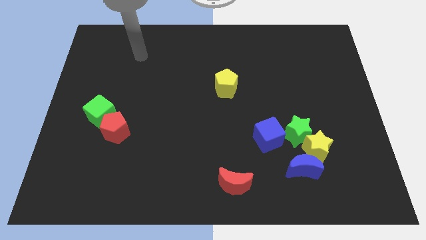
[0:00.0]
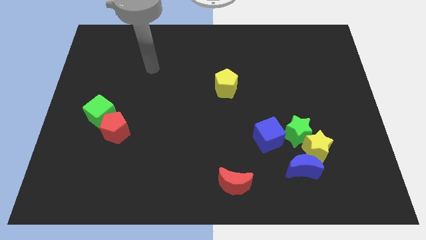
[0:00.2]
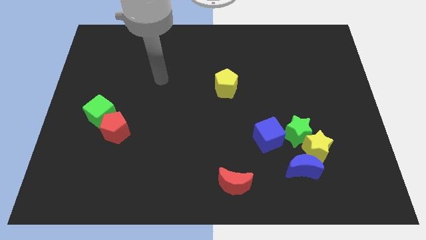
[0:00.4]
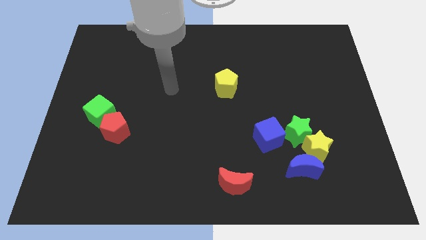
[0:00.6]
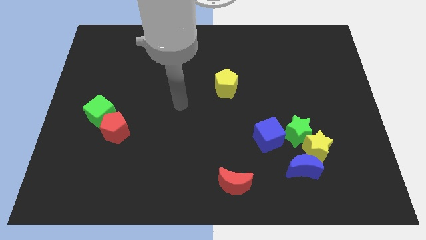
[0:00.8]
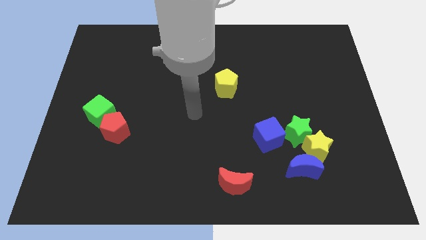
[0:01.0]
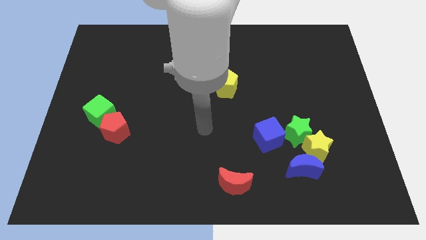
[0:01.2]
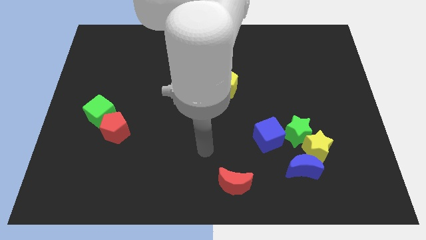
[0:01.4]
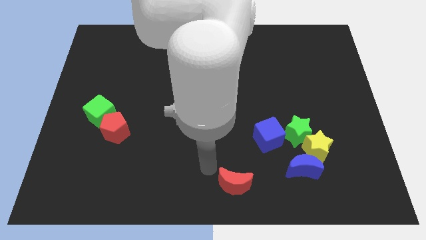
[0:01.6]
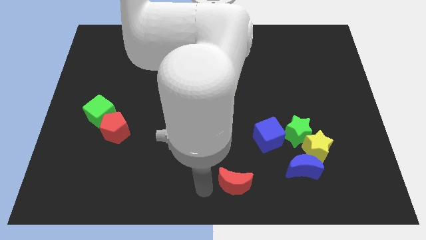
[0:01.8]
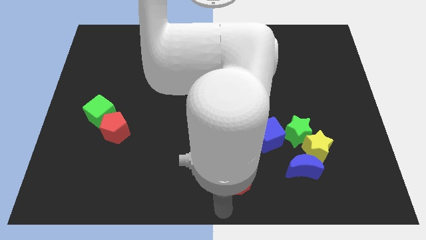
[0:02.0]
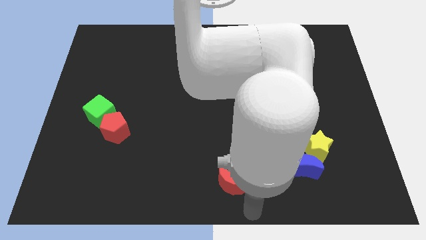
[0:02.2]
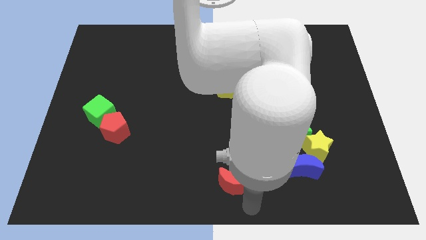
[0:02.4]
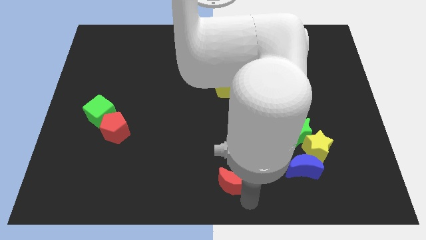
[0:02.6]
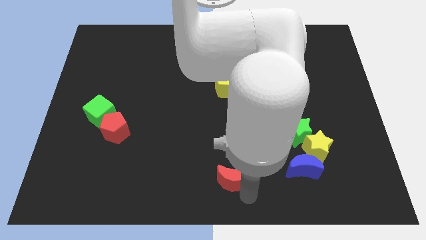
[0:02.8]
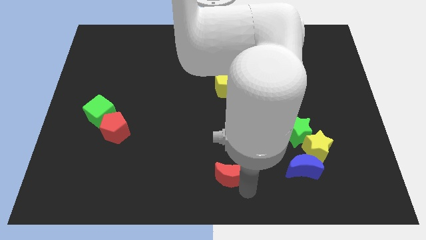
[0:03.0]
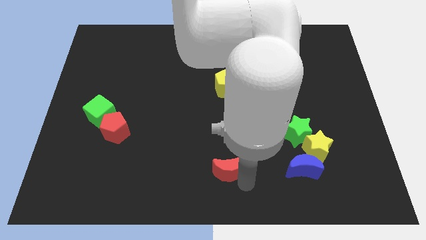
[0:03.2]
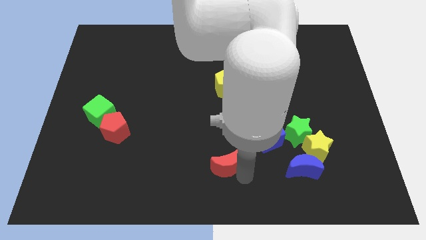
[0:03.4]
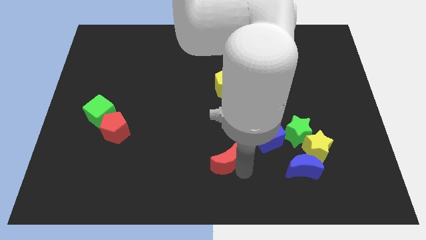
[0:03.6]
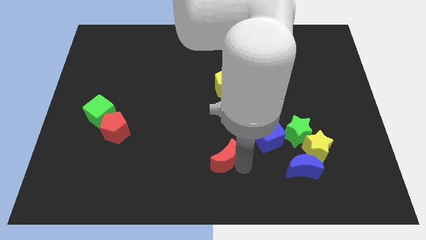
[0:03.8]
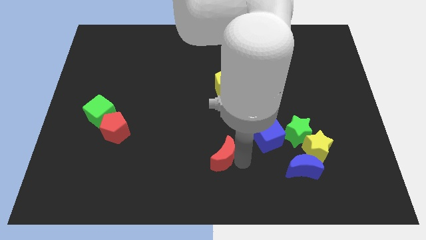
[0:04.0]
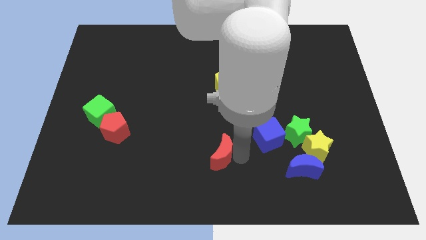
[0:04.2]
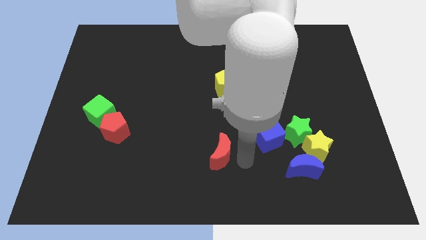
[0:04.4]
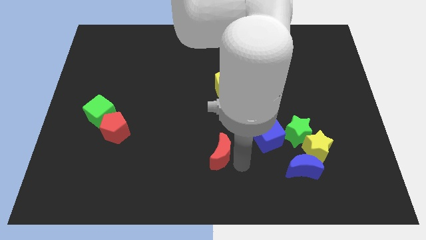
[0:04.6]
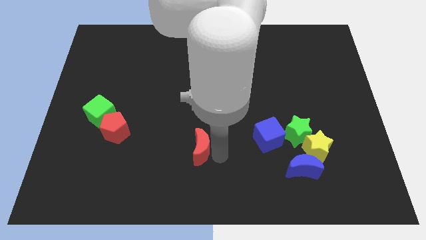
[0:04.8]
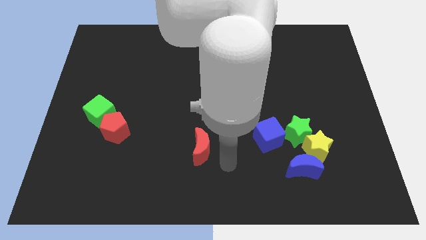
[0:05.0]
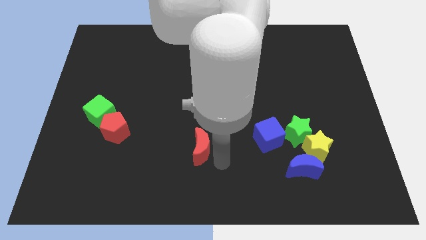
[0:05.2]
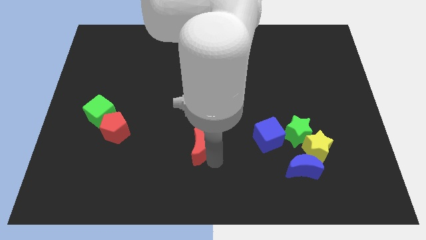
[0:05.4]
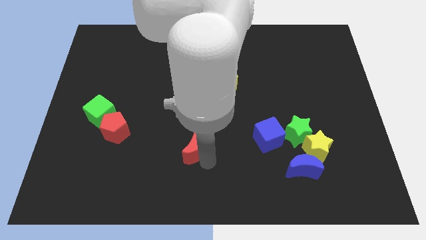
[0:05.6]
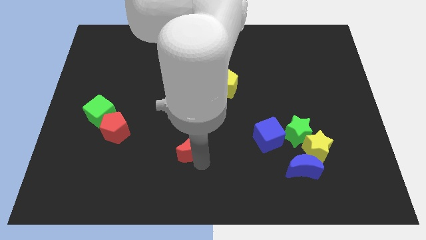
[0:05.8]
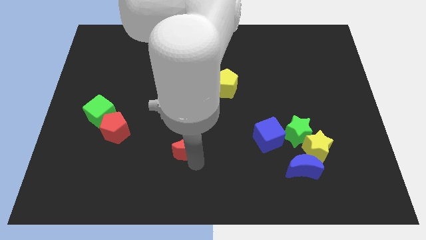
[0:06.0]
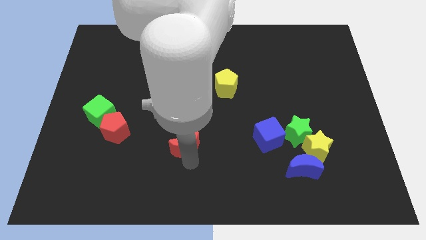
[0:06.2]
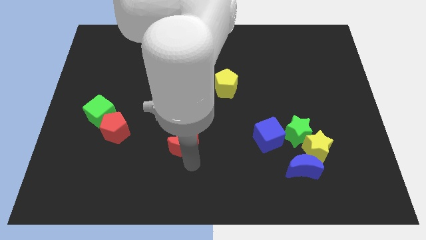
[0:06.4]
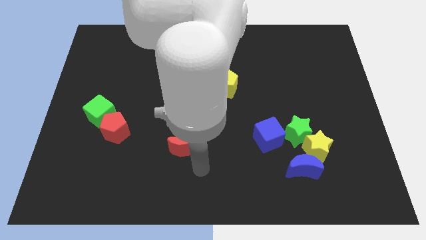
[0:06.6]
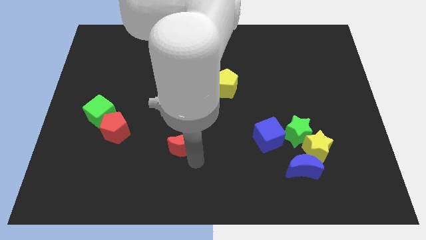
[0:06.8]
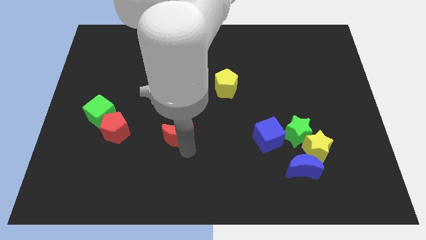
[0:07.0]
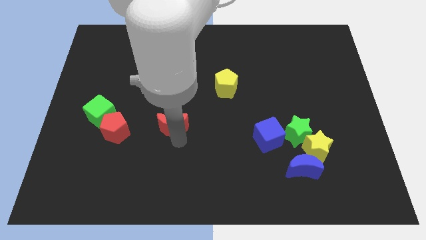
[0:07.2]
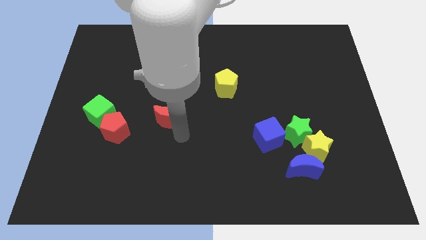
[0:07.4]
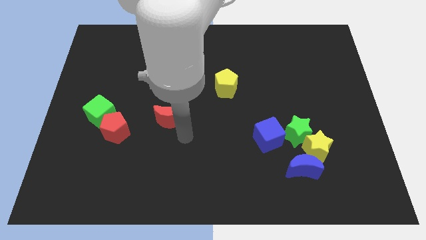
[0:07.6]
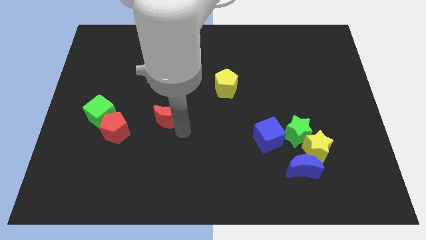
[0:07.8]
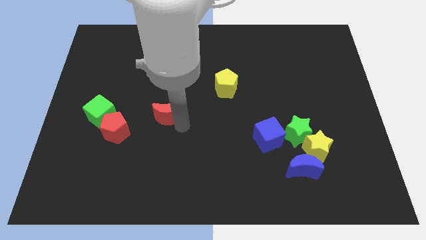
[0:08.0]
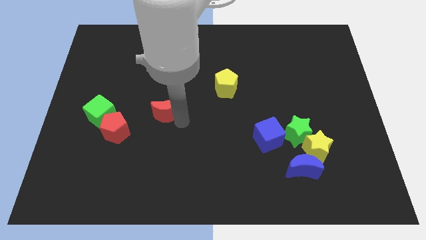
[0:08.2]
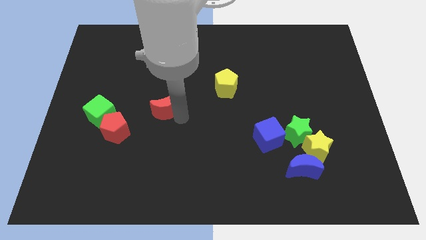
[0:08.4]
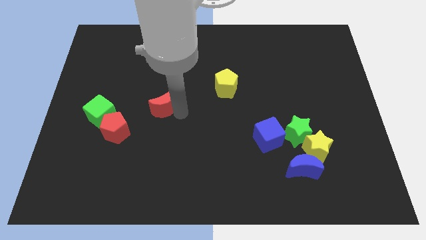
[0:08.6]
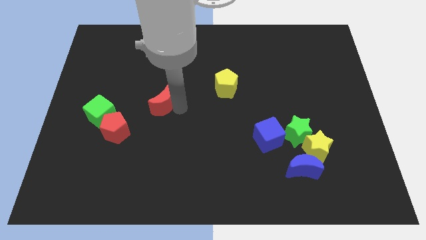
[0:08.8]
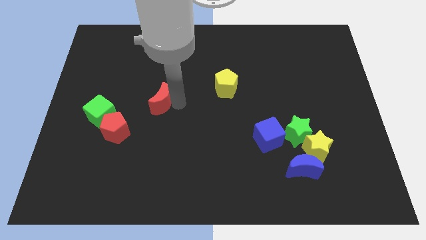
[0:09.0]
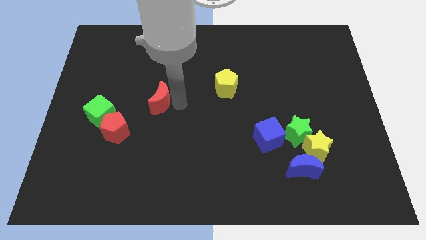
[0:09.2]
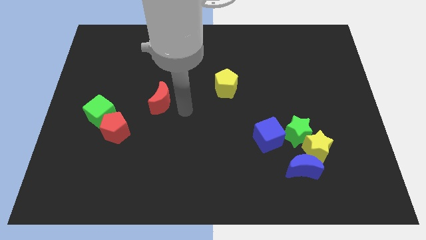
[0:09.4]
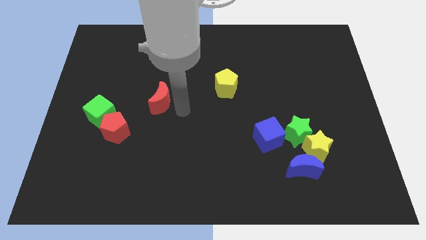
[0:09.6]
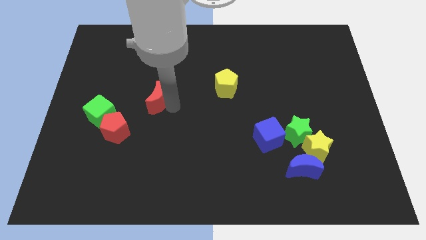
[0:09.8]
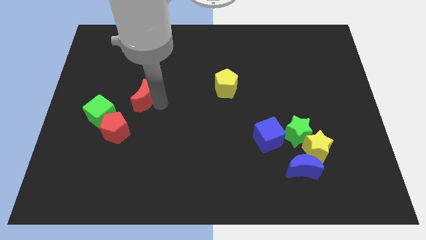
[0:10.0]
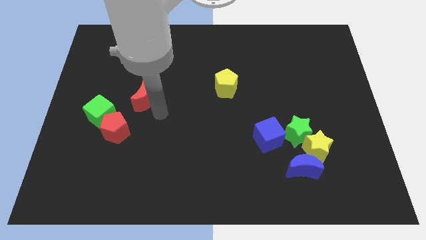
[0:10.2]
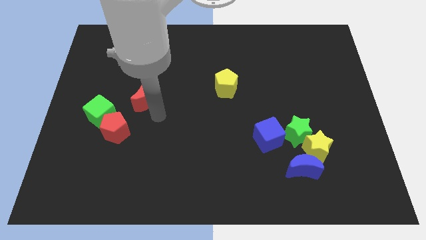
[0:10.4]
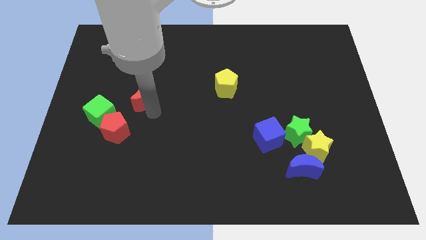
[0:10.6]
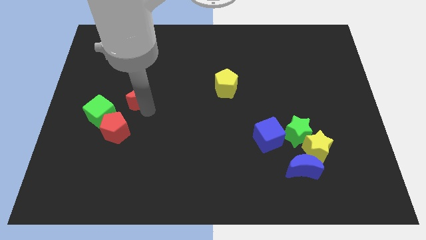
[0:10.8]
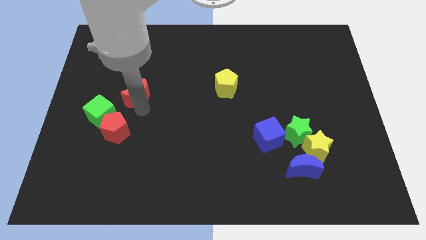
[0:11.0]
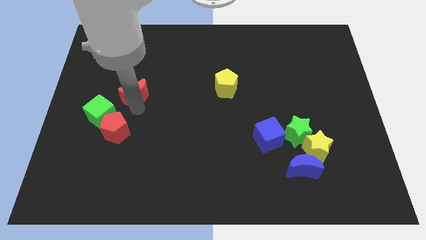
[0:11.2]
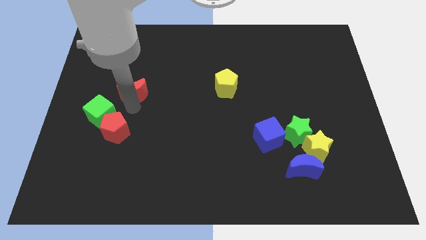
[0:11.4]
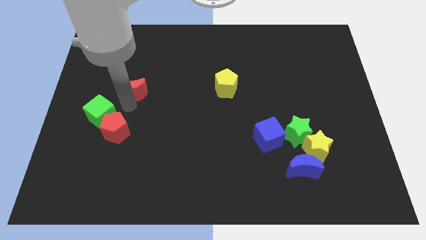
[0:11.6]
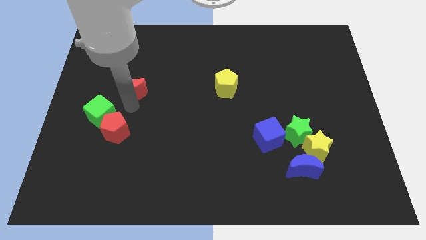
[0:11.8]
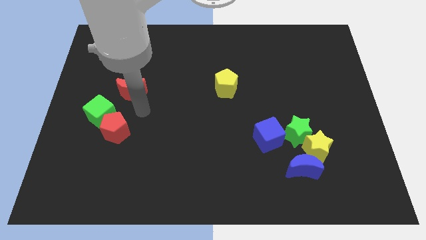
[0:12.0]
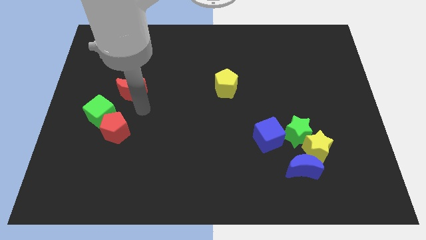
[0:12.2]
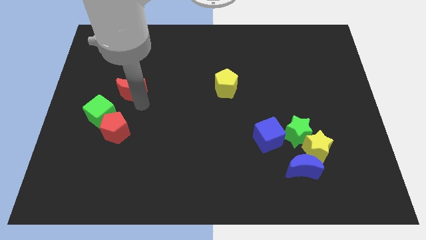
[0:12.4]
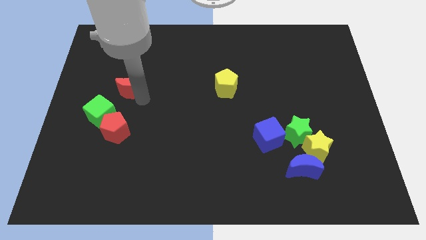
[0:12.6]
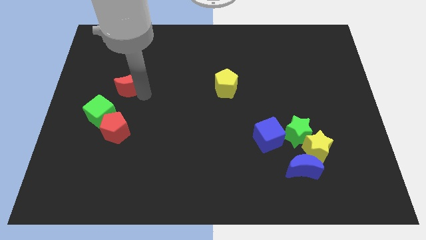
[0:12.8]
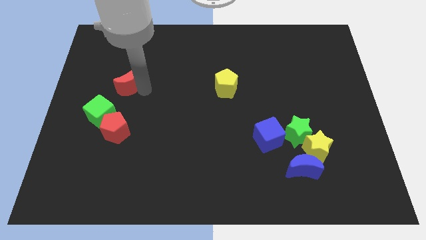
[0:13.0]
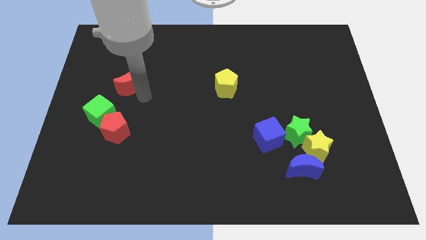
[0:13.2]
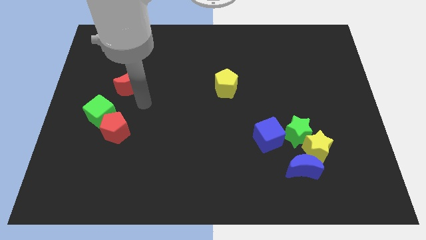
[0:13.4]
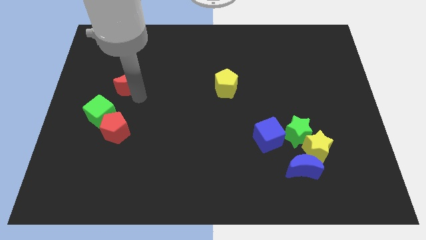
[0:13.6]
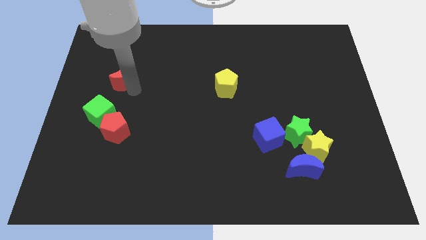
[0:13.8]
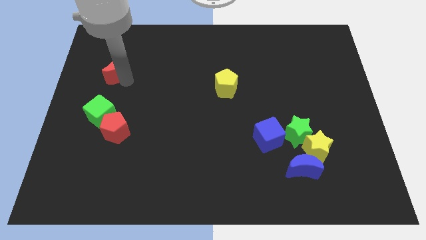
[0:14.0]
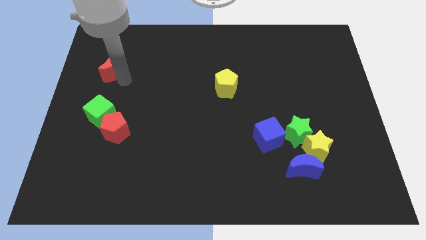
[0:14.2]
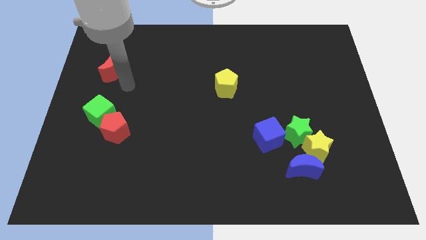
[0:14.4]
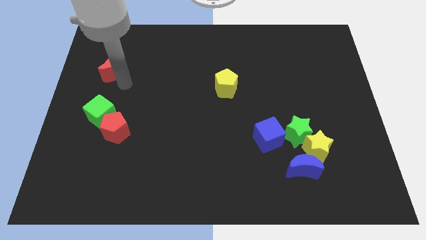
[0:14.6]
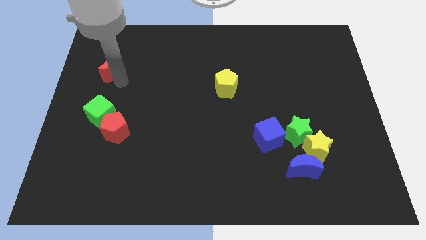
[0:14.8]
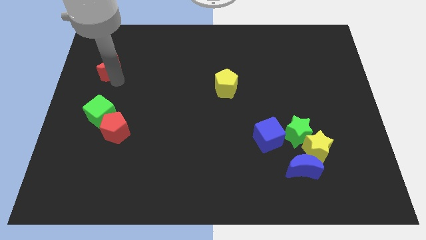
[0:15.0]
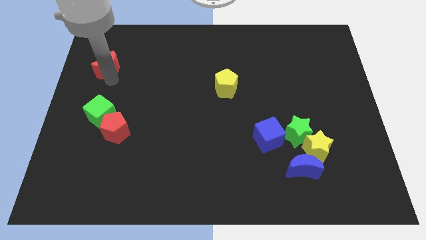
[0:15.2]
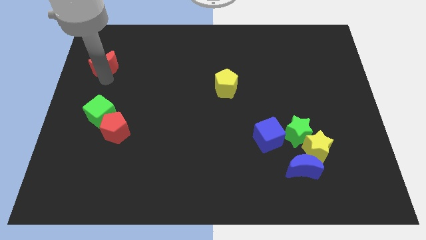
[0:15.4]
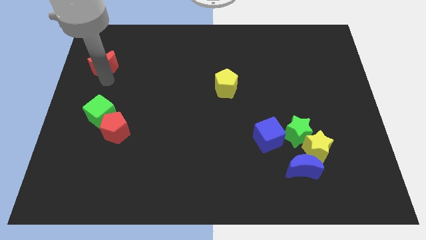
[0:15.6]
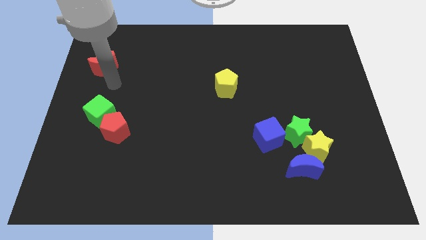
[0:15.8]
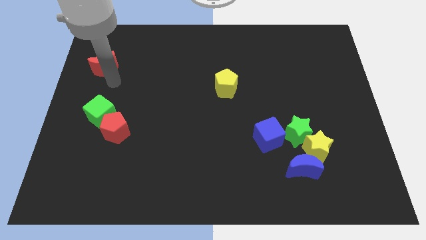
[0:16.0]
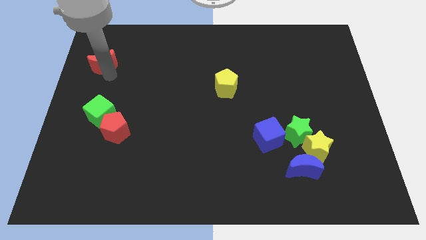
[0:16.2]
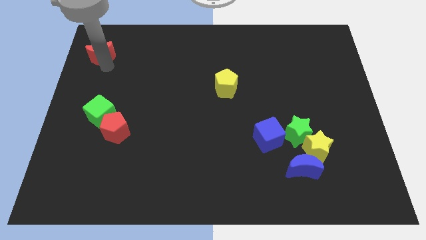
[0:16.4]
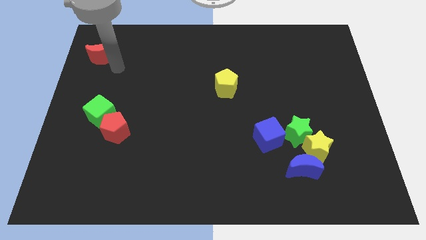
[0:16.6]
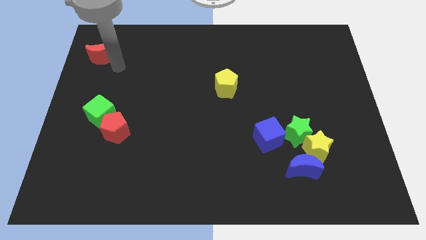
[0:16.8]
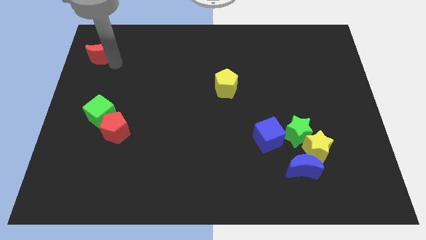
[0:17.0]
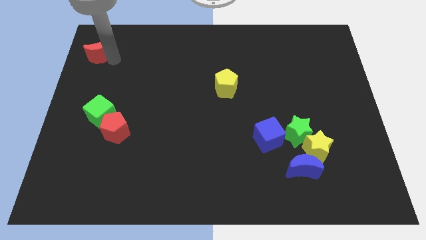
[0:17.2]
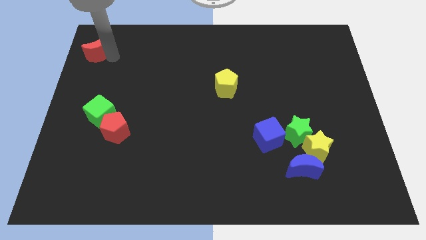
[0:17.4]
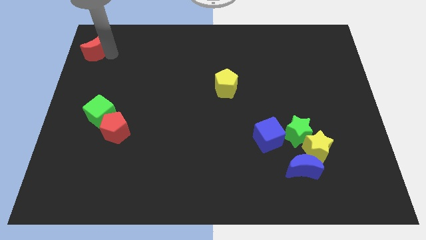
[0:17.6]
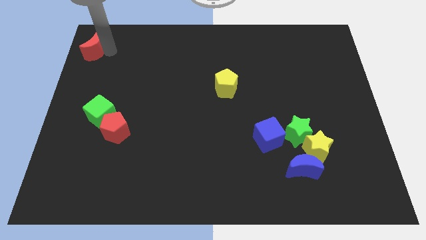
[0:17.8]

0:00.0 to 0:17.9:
slide the red moon to the upper left corner
